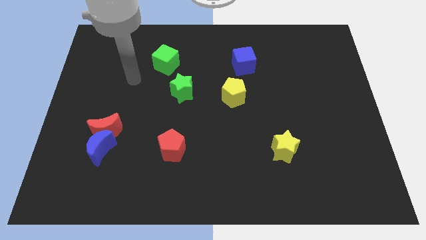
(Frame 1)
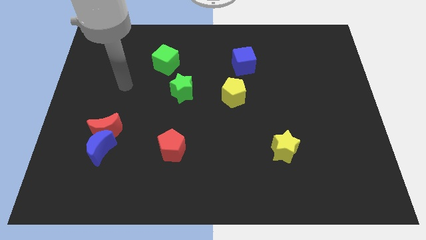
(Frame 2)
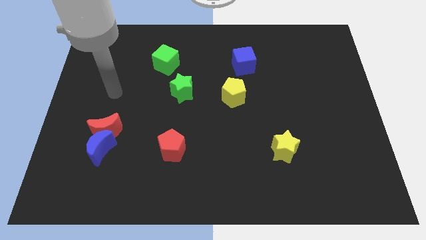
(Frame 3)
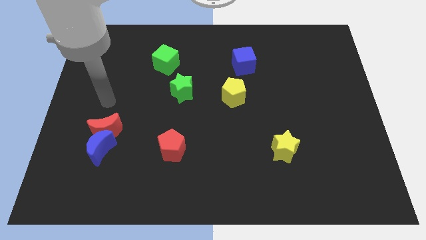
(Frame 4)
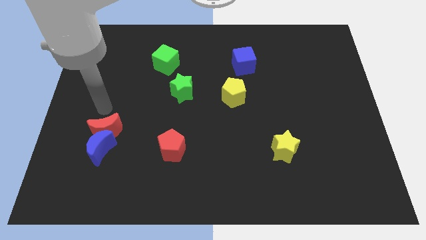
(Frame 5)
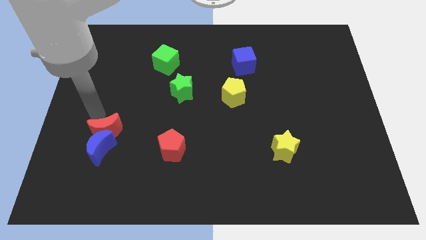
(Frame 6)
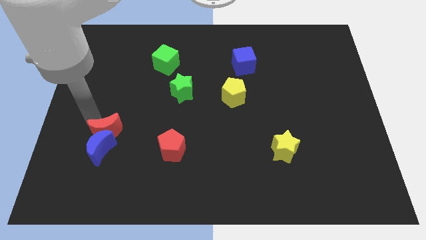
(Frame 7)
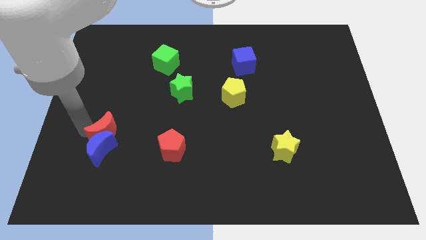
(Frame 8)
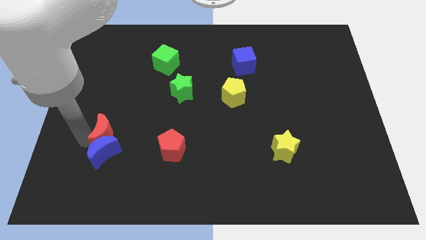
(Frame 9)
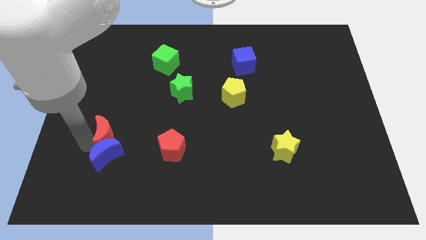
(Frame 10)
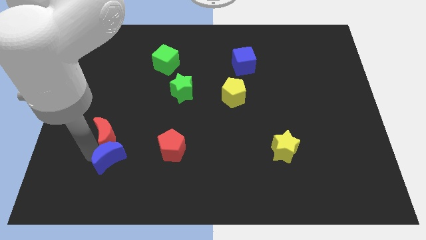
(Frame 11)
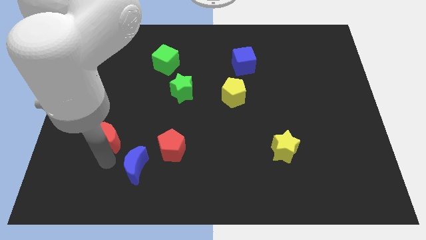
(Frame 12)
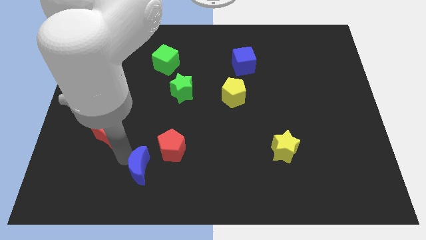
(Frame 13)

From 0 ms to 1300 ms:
pull the red moon apart from the blue moon

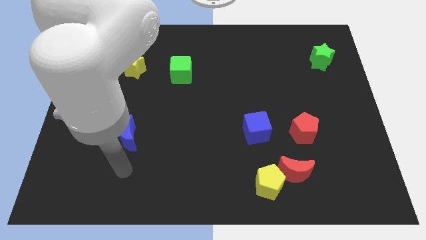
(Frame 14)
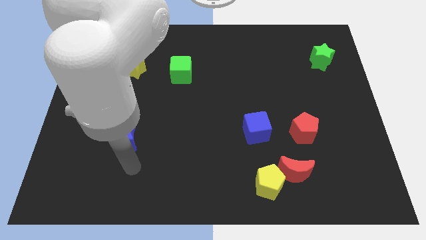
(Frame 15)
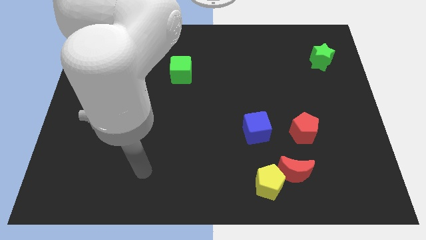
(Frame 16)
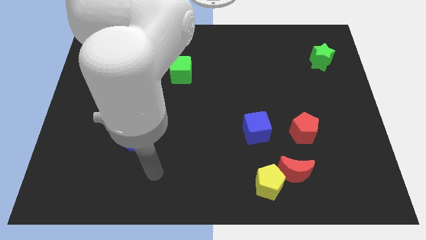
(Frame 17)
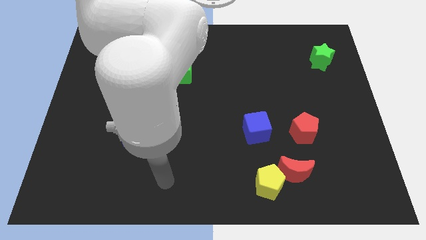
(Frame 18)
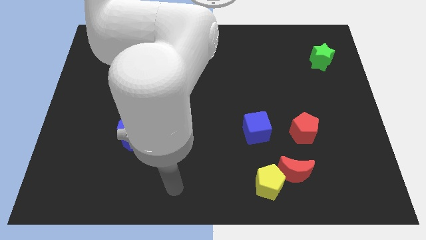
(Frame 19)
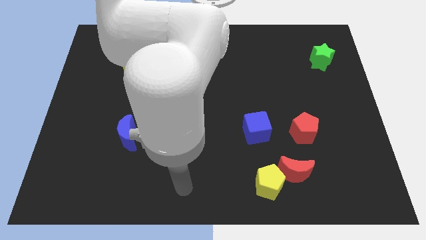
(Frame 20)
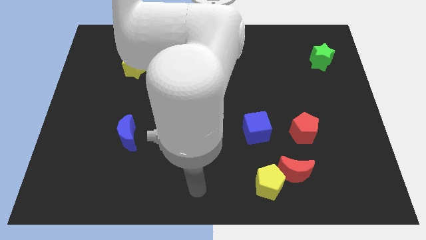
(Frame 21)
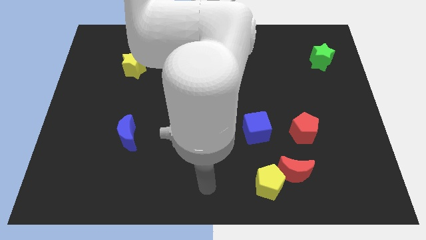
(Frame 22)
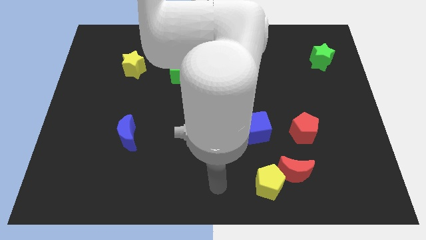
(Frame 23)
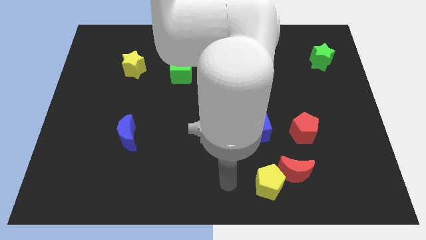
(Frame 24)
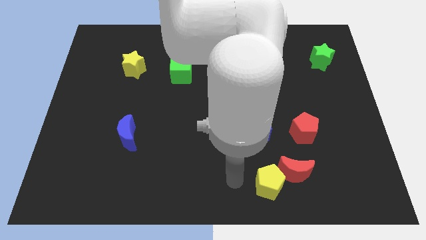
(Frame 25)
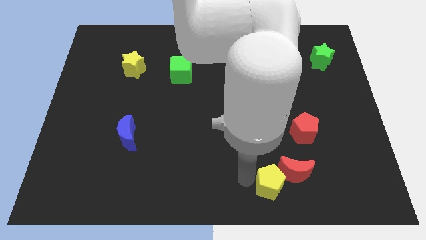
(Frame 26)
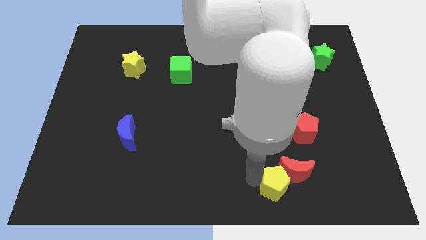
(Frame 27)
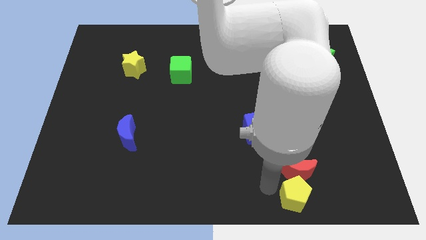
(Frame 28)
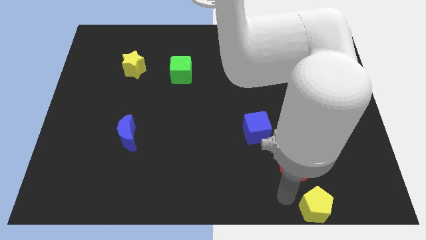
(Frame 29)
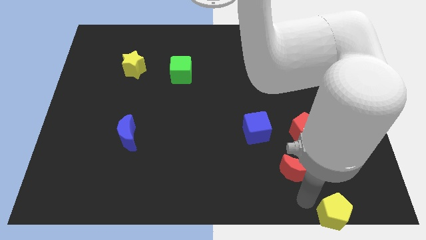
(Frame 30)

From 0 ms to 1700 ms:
separate the red moon from the yellow pentagon

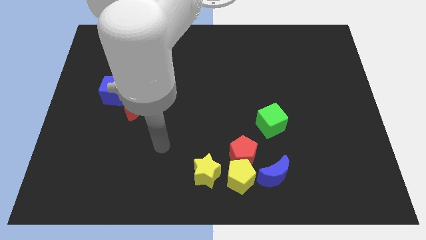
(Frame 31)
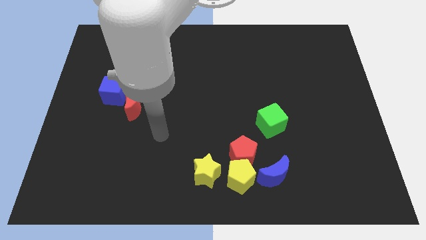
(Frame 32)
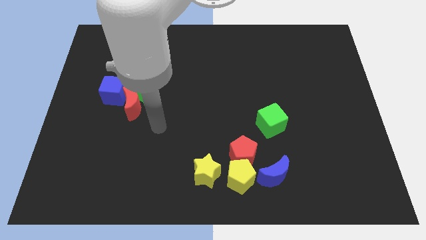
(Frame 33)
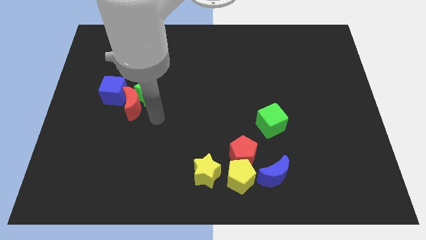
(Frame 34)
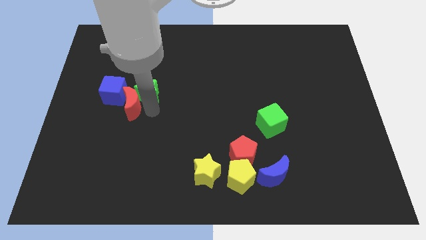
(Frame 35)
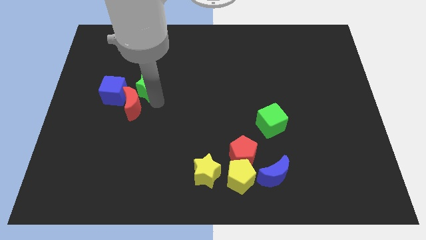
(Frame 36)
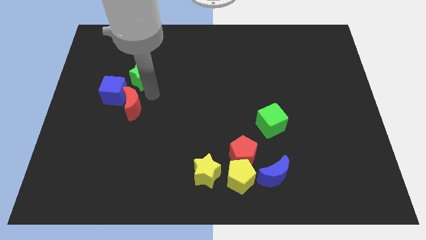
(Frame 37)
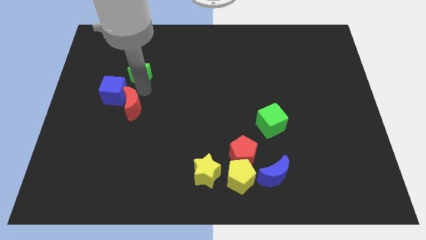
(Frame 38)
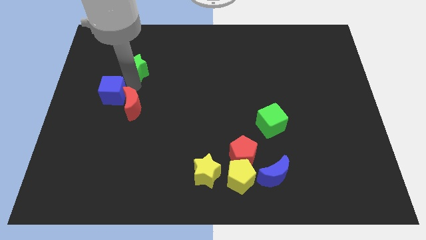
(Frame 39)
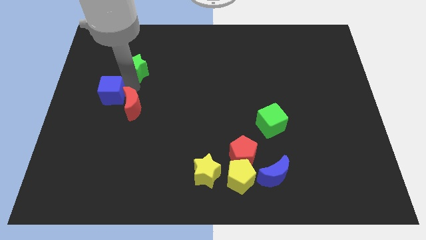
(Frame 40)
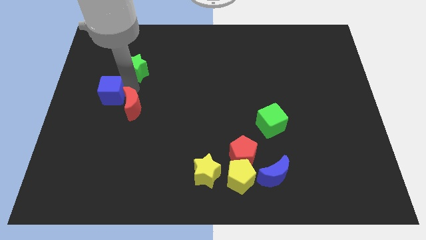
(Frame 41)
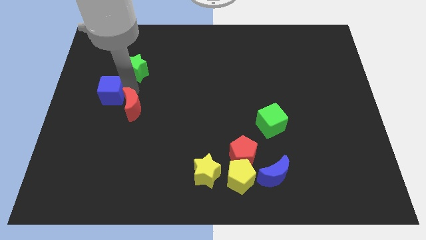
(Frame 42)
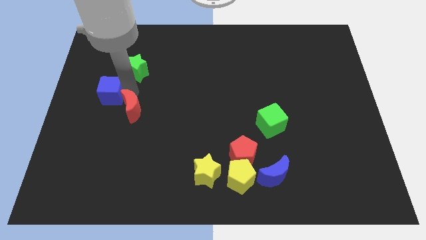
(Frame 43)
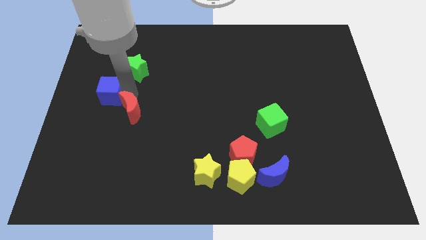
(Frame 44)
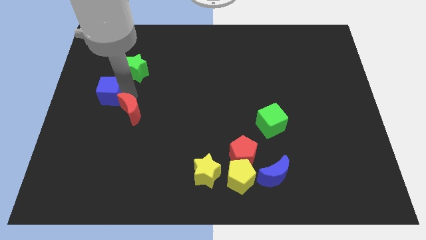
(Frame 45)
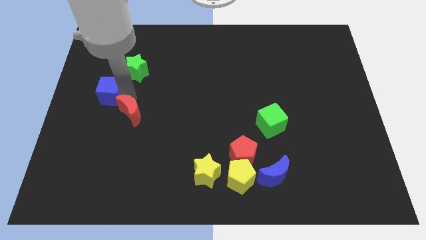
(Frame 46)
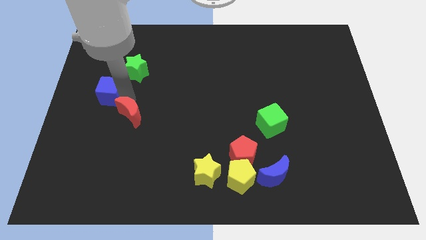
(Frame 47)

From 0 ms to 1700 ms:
move the red moon away from the green star and blue cube

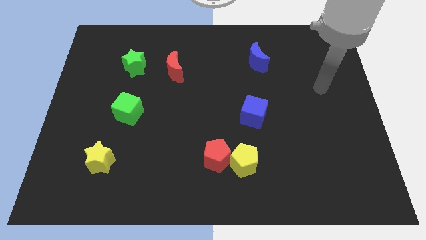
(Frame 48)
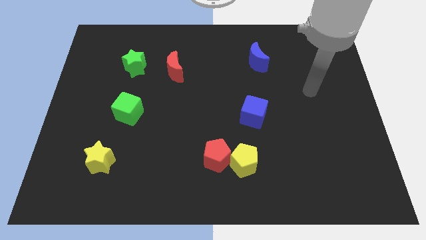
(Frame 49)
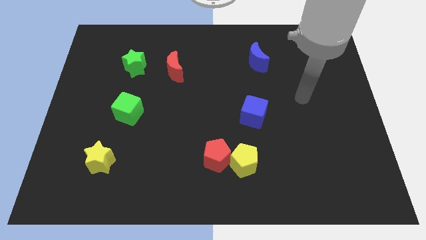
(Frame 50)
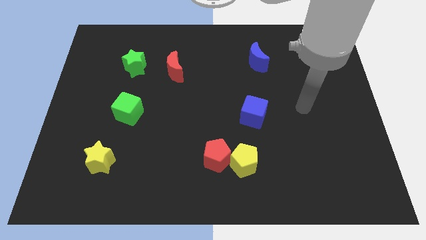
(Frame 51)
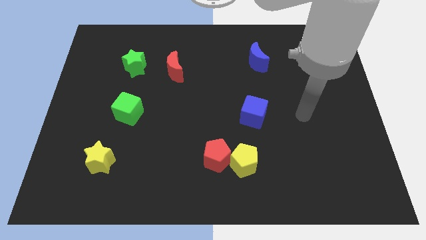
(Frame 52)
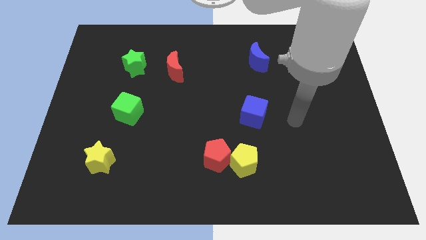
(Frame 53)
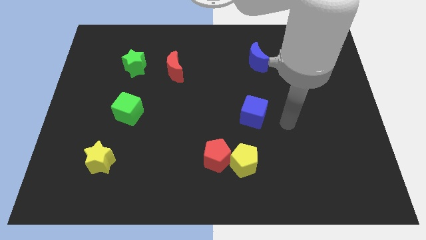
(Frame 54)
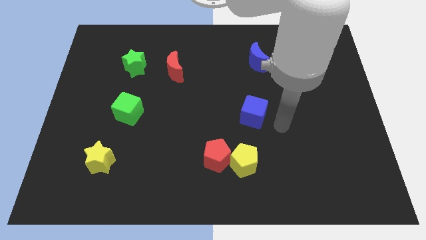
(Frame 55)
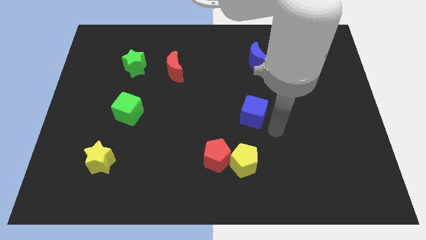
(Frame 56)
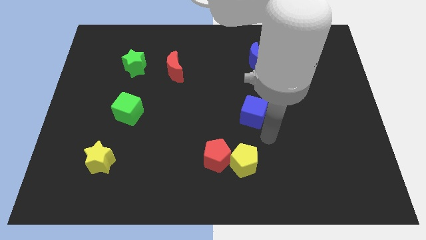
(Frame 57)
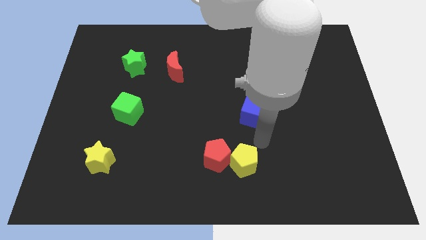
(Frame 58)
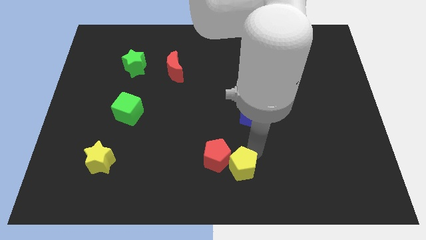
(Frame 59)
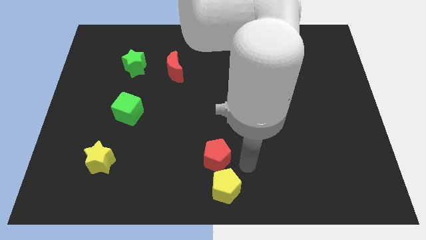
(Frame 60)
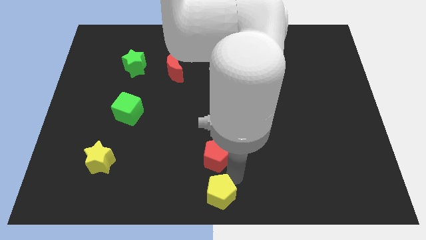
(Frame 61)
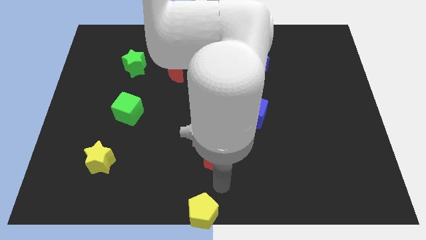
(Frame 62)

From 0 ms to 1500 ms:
move the red pentagon away from the yellow pentagon

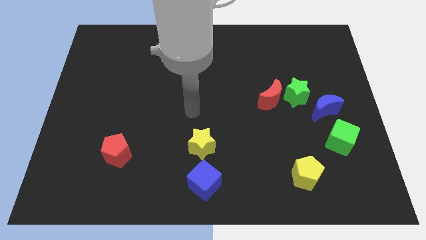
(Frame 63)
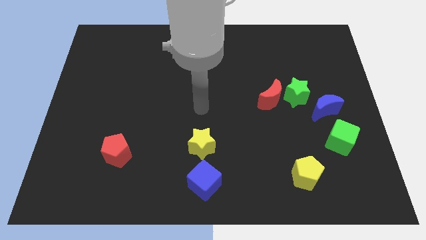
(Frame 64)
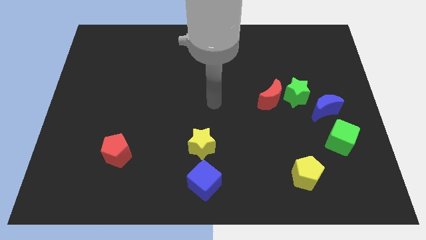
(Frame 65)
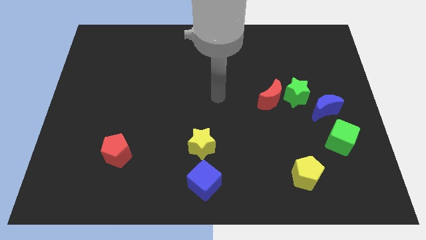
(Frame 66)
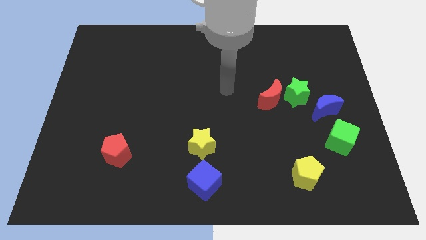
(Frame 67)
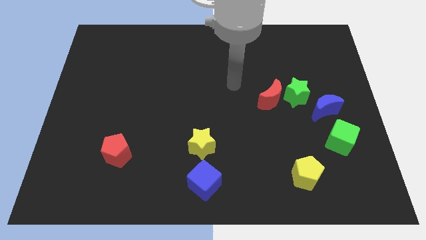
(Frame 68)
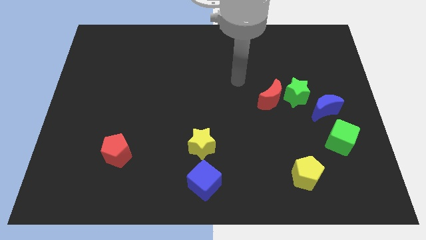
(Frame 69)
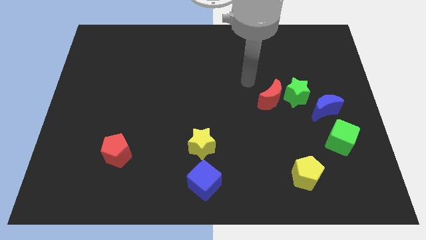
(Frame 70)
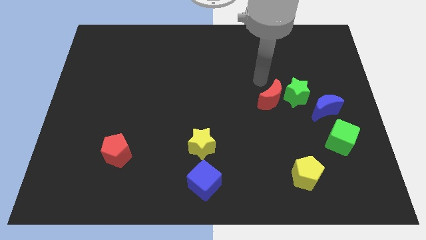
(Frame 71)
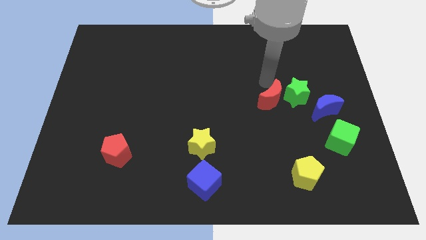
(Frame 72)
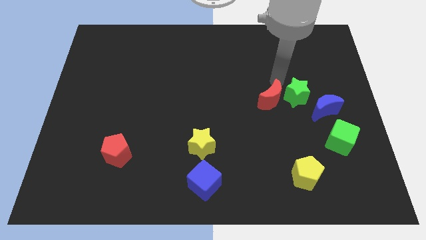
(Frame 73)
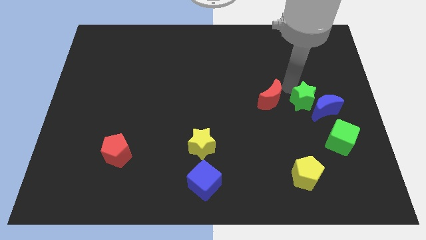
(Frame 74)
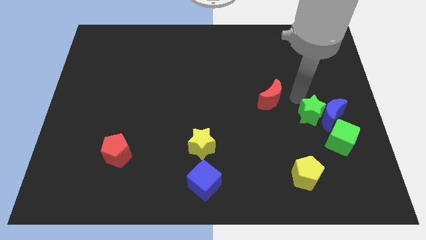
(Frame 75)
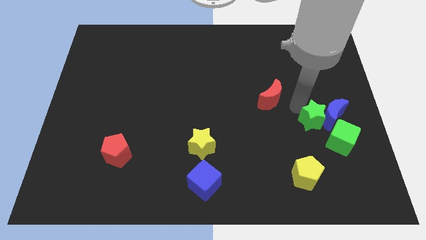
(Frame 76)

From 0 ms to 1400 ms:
move the red moon away from the green star

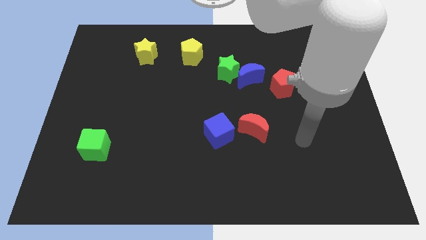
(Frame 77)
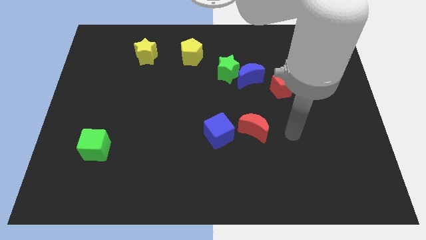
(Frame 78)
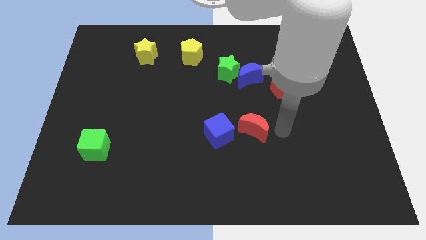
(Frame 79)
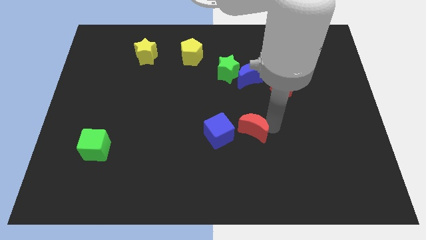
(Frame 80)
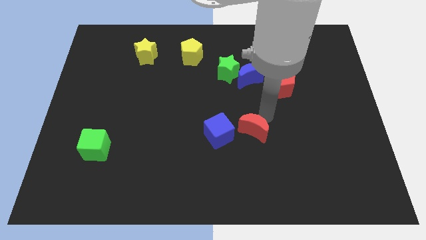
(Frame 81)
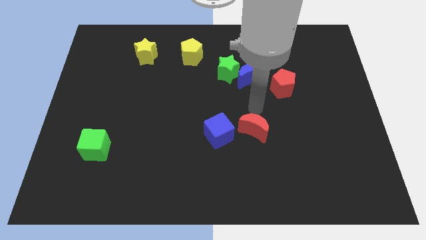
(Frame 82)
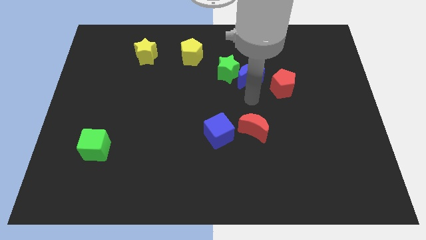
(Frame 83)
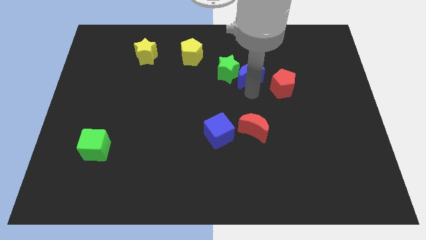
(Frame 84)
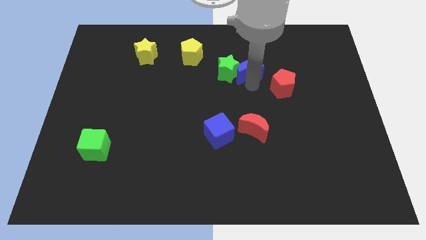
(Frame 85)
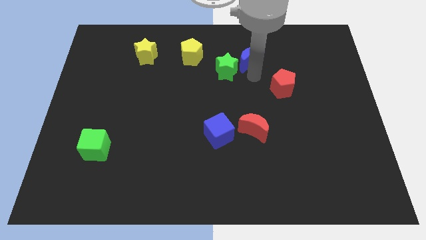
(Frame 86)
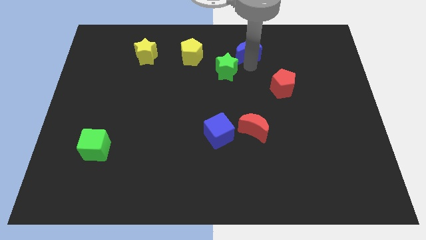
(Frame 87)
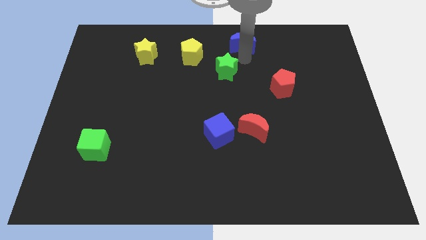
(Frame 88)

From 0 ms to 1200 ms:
pull the green star apart from the blue moon

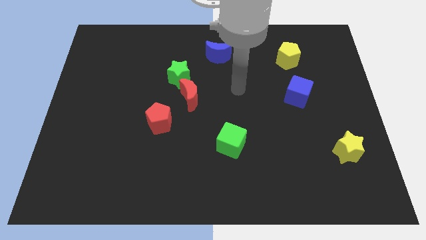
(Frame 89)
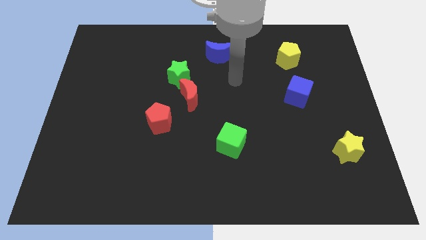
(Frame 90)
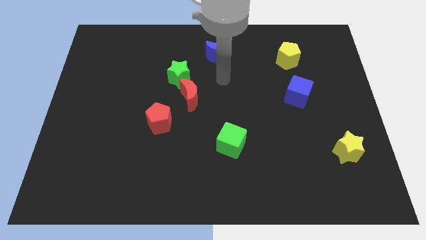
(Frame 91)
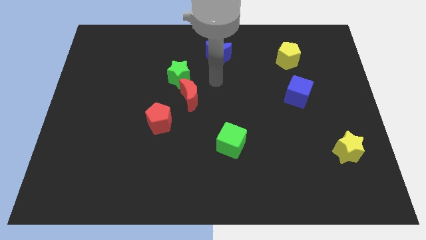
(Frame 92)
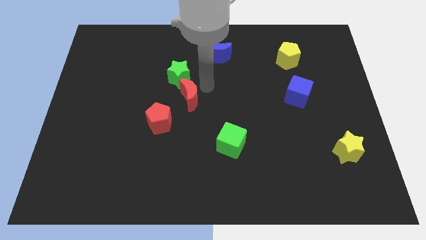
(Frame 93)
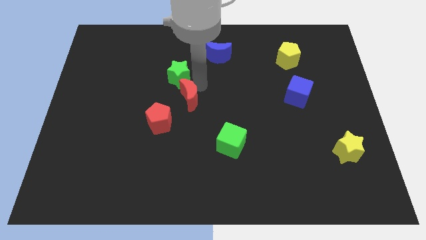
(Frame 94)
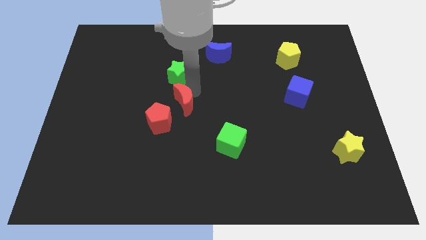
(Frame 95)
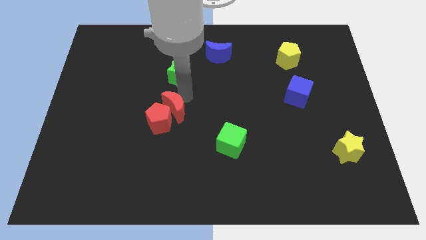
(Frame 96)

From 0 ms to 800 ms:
pull the green star apart from the red moon
